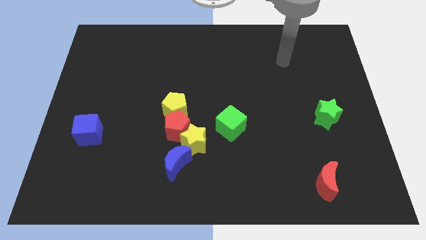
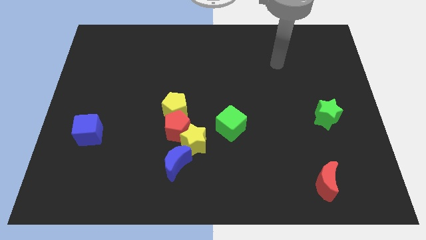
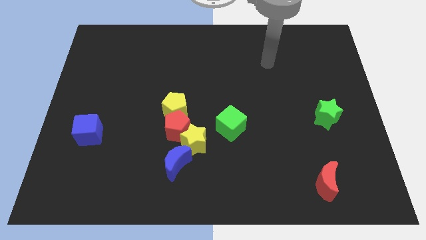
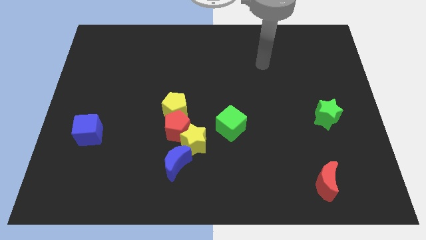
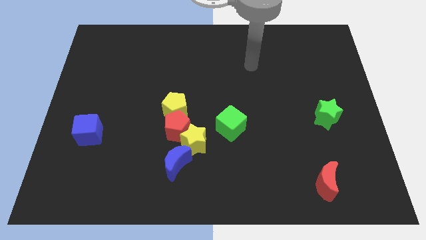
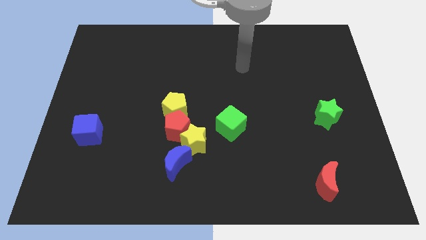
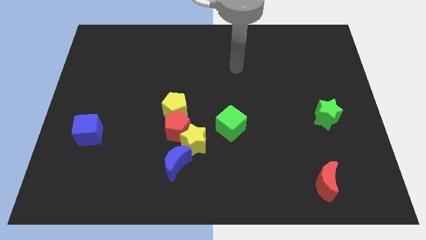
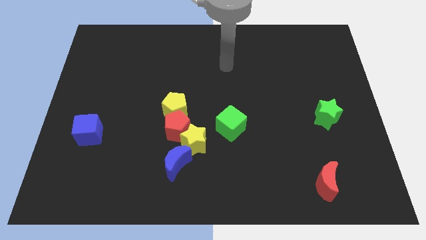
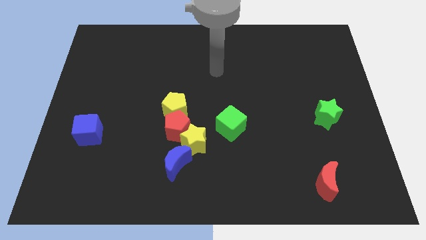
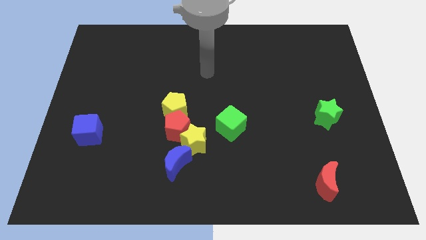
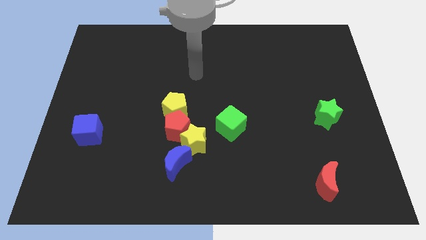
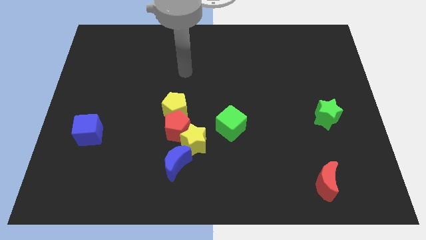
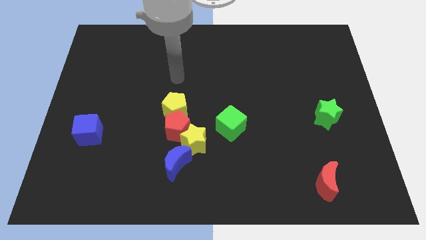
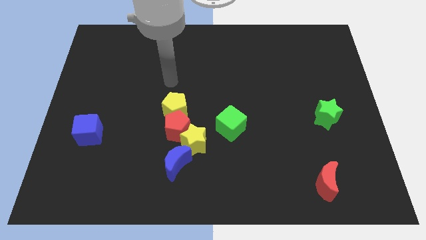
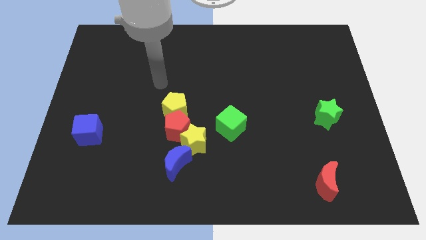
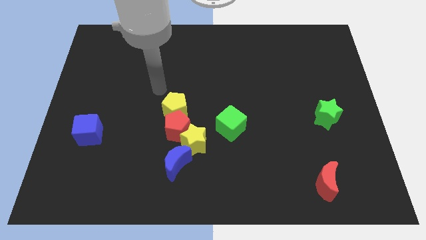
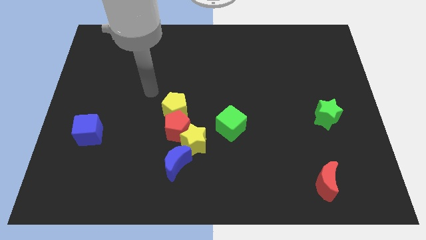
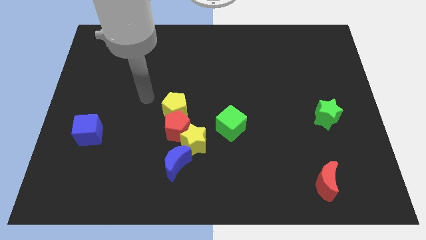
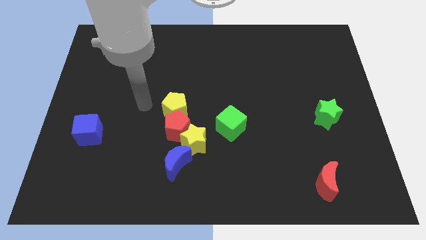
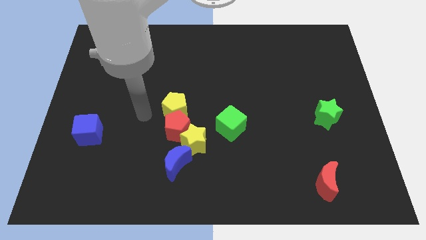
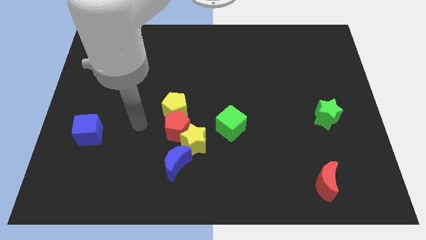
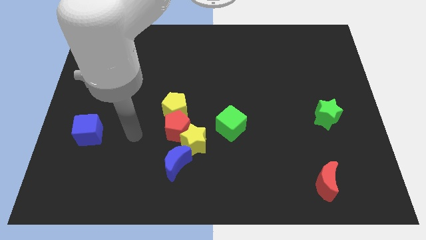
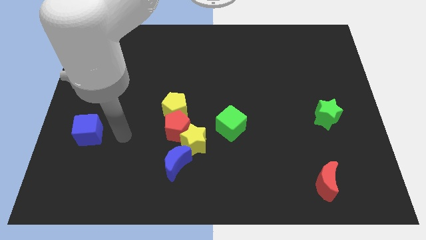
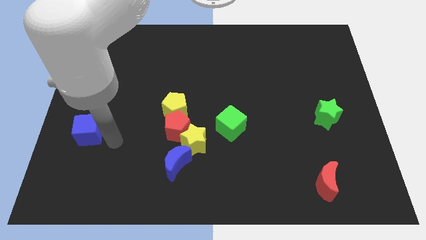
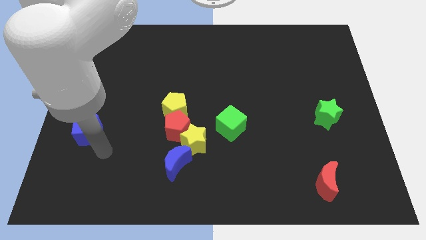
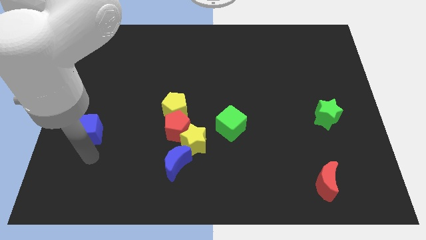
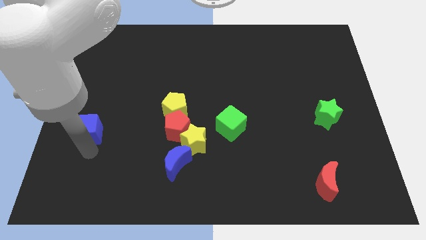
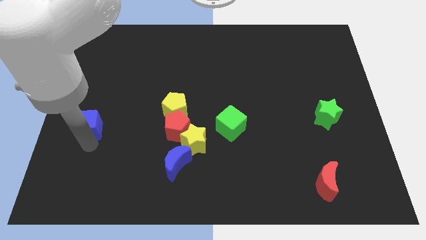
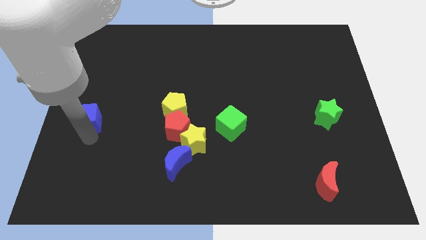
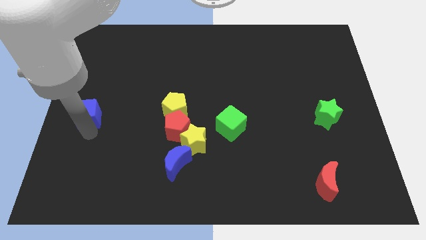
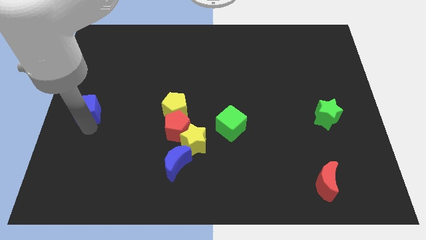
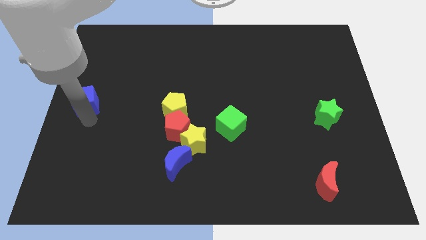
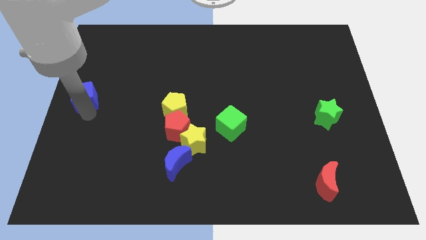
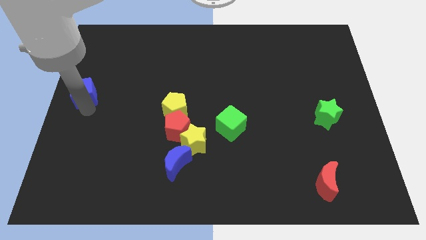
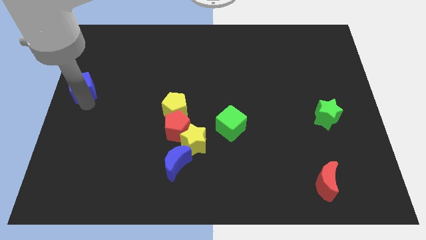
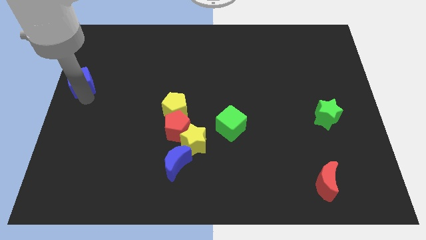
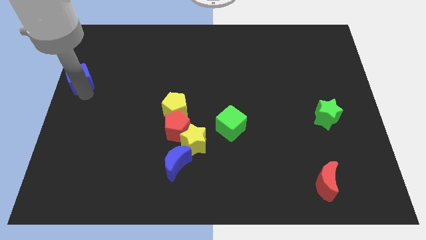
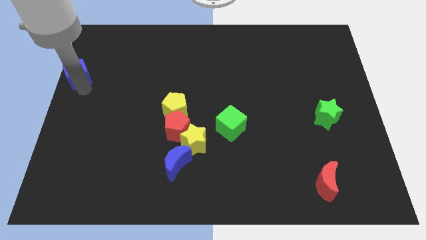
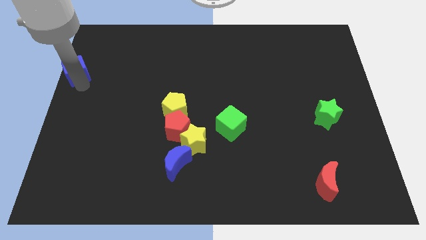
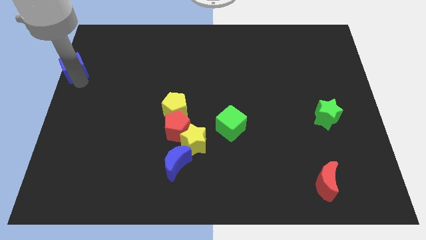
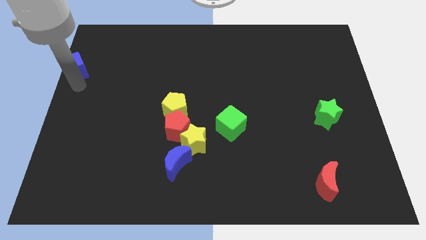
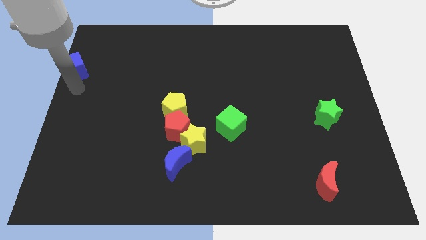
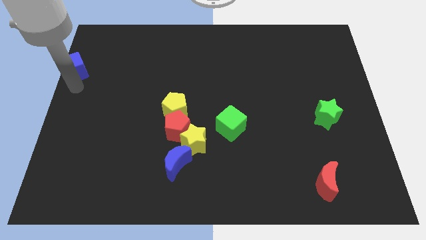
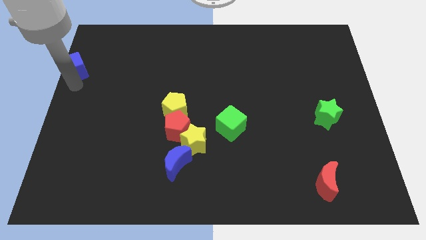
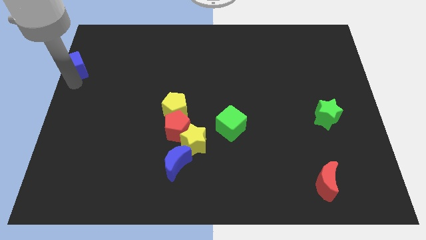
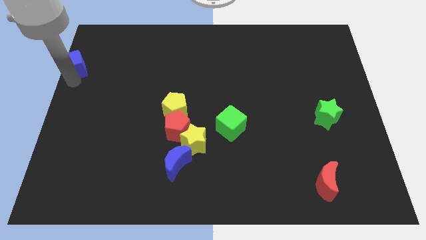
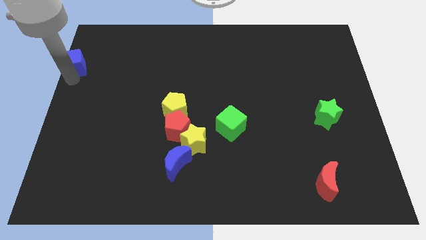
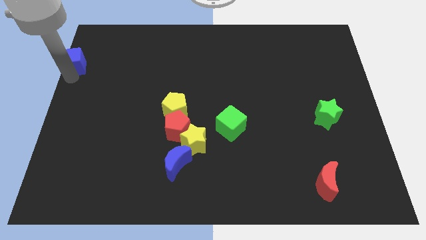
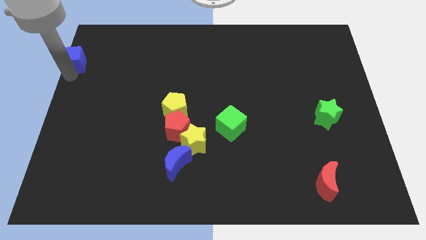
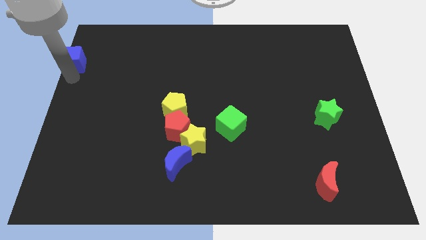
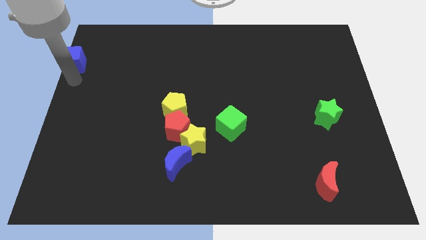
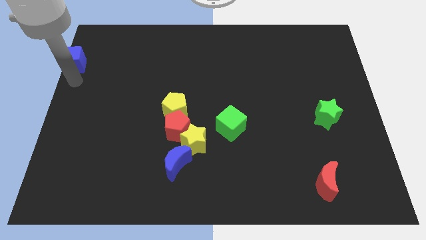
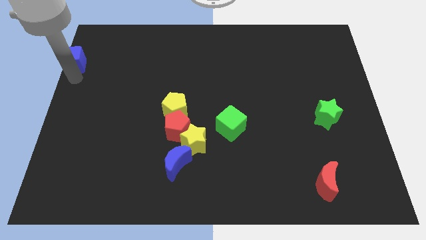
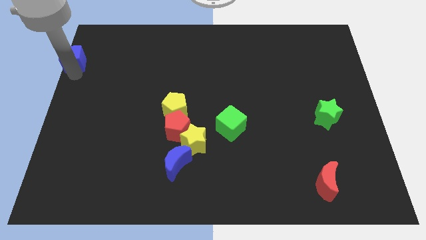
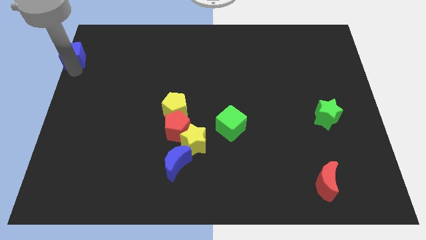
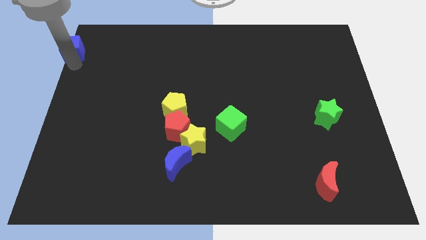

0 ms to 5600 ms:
move the blue cube to the top left of the board

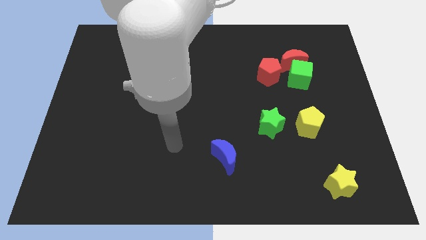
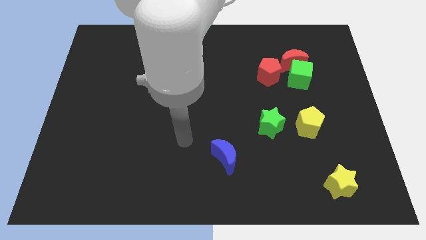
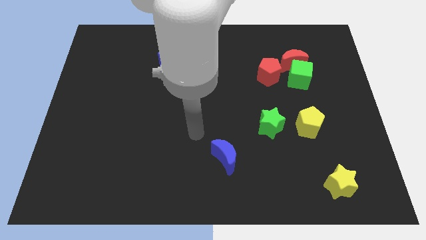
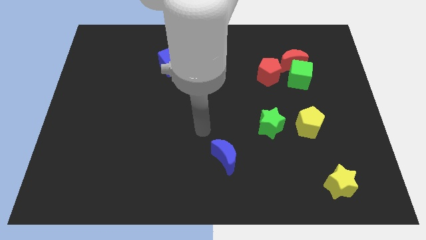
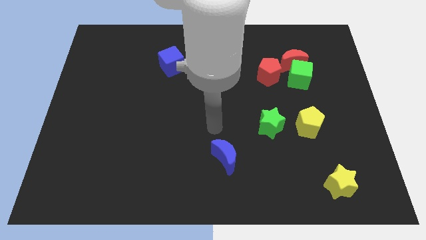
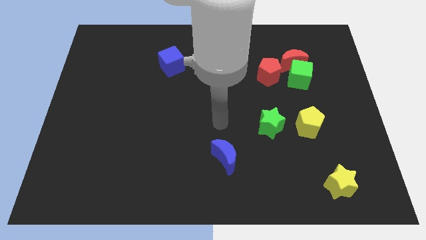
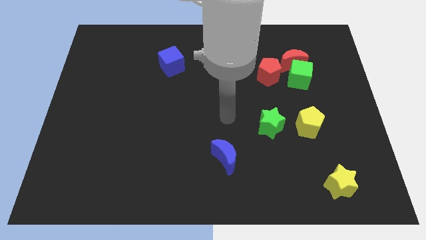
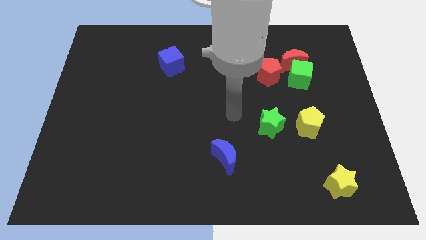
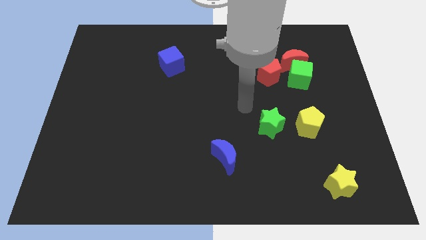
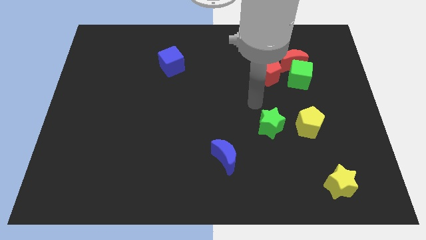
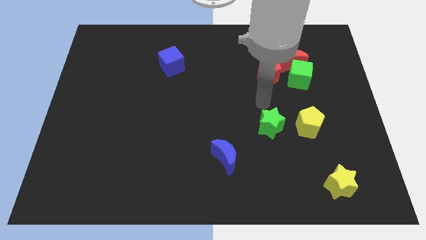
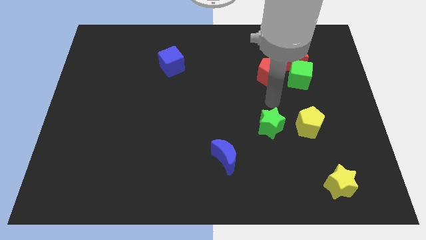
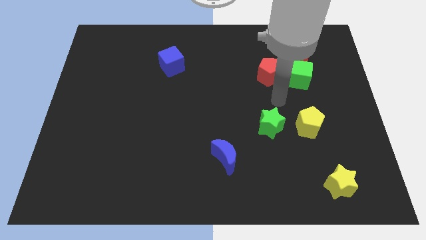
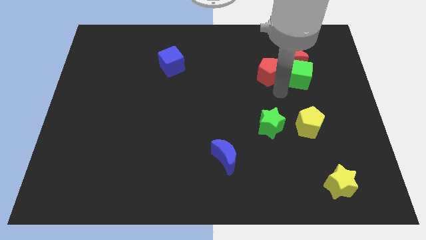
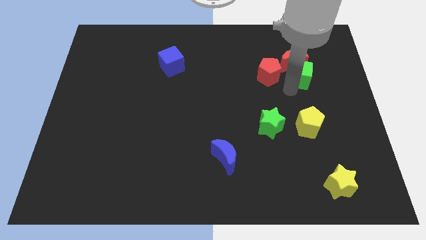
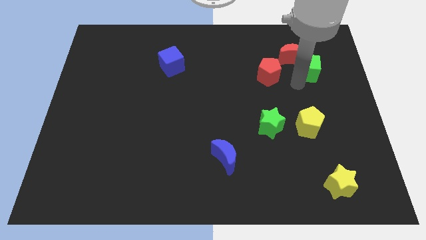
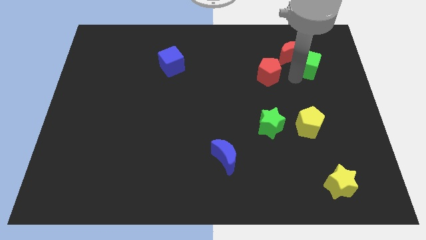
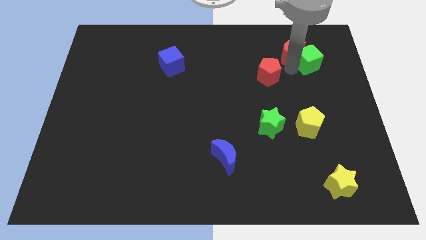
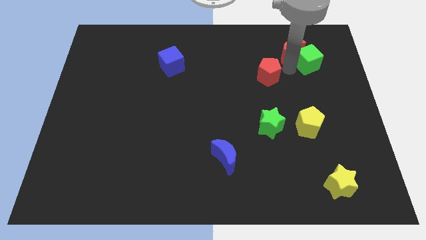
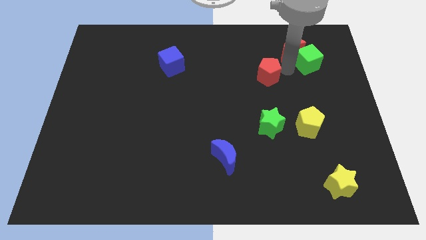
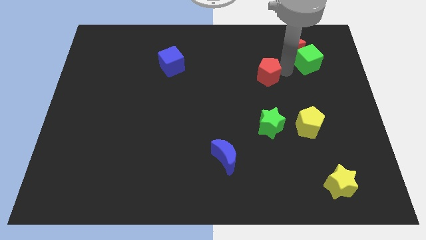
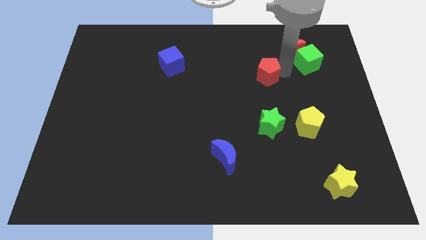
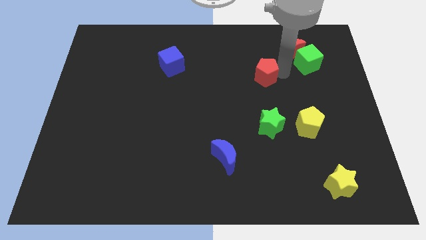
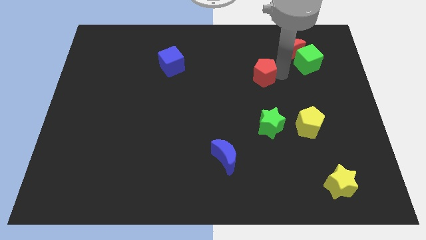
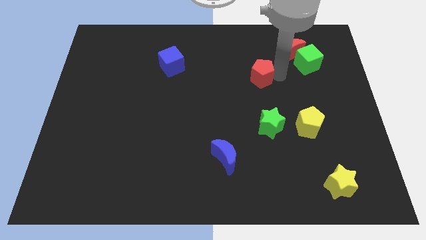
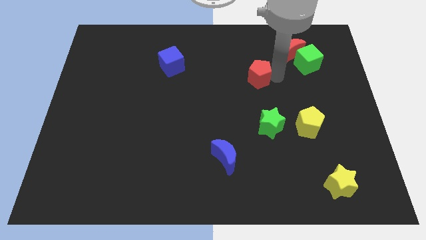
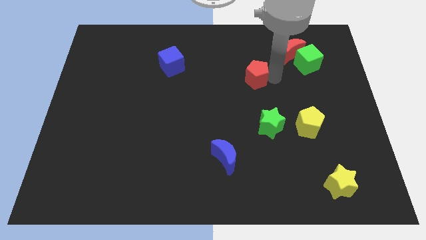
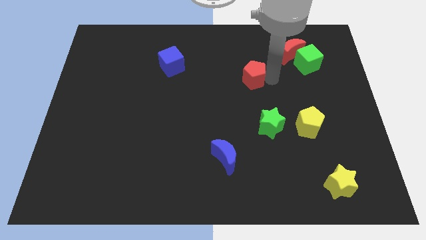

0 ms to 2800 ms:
push the red pentagon to the middle of the board
